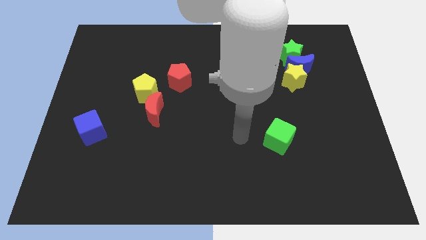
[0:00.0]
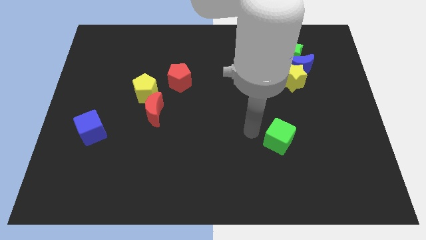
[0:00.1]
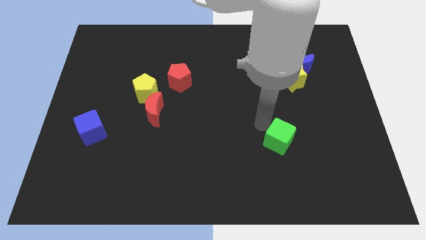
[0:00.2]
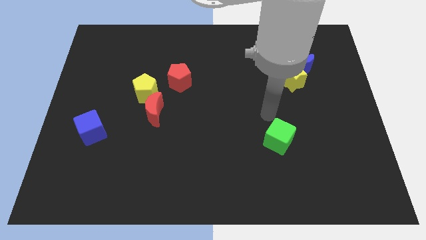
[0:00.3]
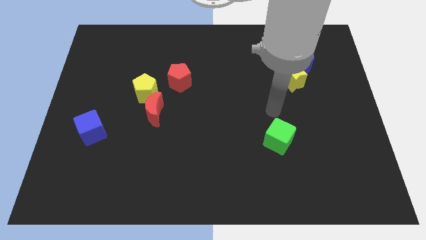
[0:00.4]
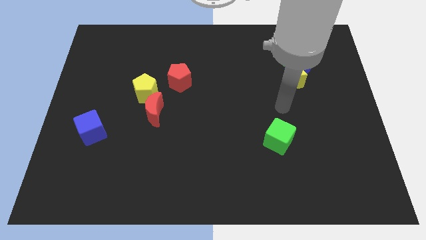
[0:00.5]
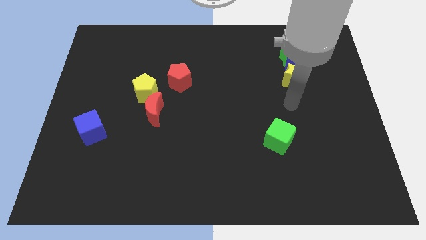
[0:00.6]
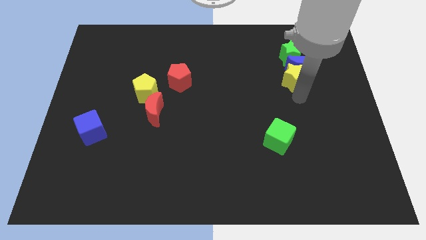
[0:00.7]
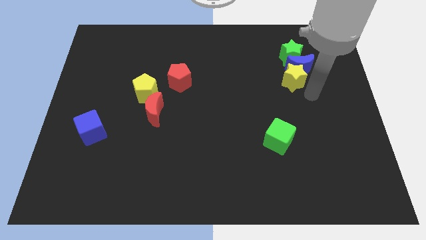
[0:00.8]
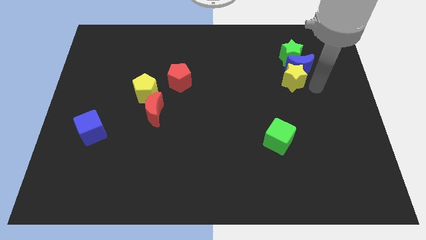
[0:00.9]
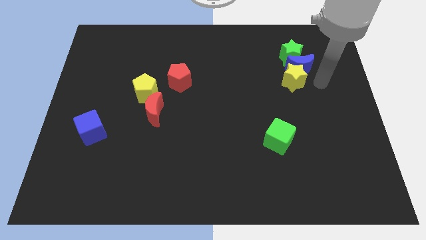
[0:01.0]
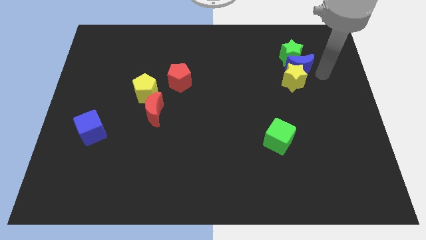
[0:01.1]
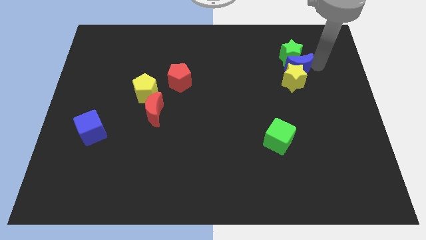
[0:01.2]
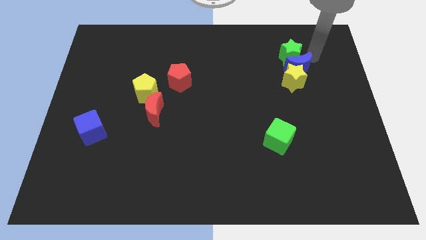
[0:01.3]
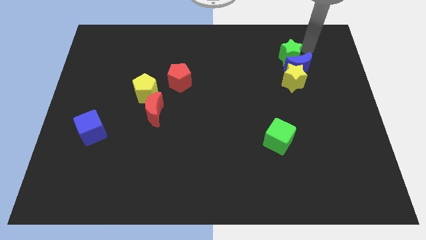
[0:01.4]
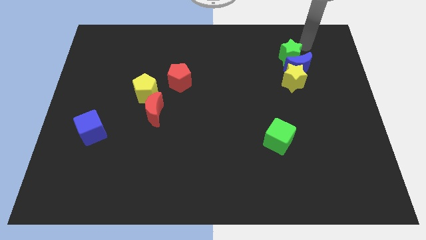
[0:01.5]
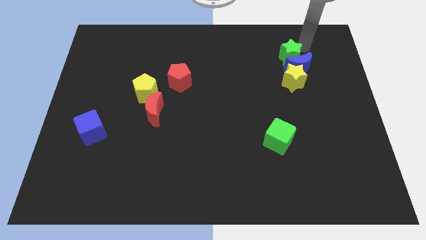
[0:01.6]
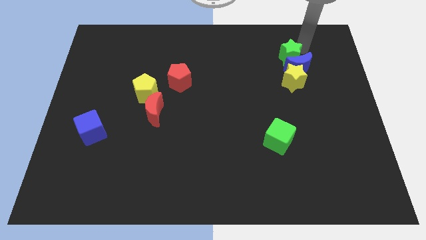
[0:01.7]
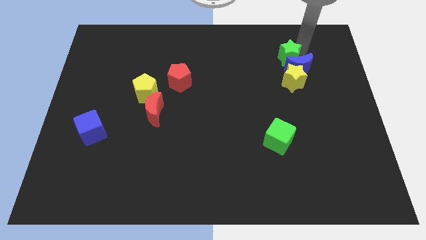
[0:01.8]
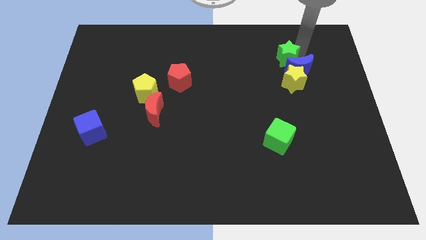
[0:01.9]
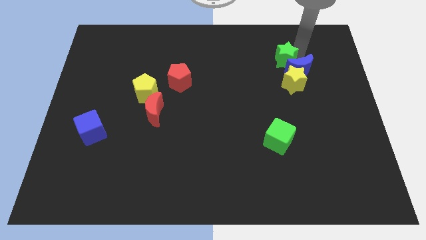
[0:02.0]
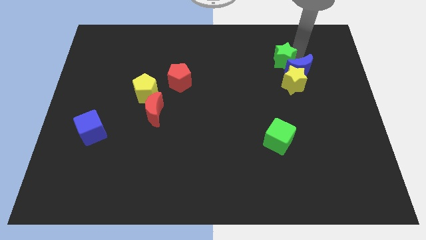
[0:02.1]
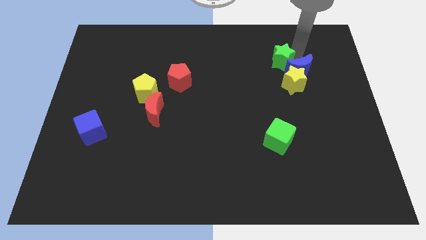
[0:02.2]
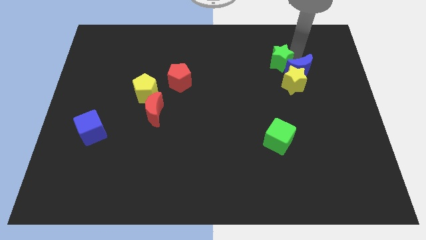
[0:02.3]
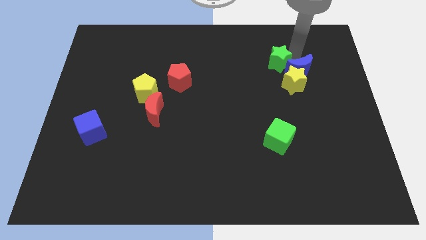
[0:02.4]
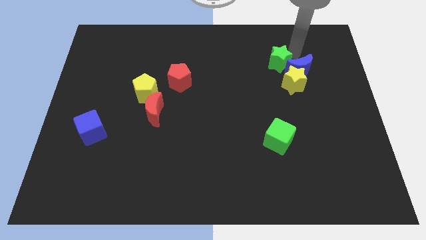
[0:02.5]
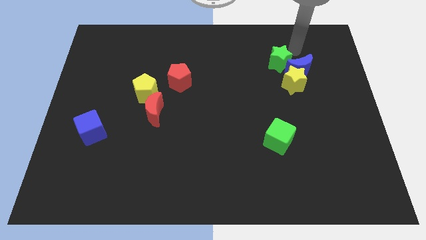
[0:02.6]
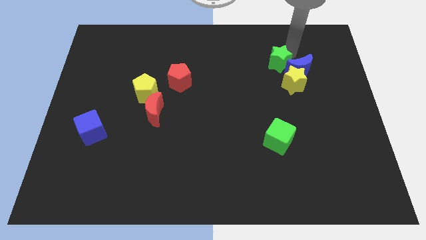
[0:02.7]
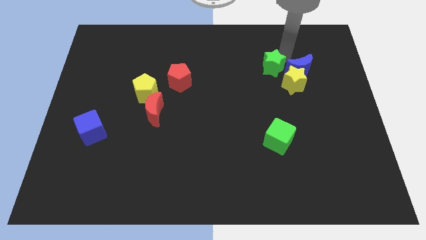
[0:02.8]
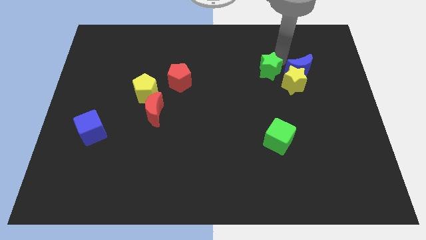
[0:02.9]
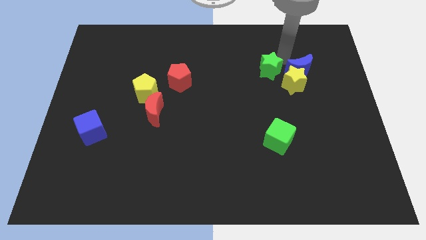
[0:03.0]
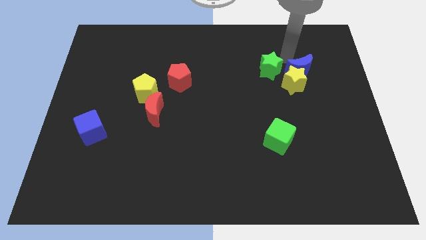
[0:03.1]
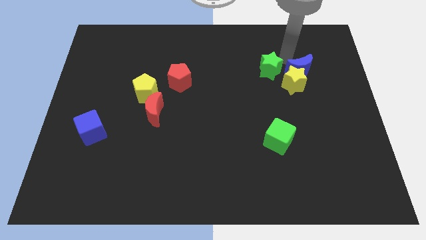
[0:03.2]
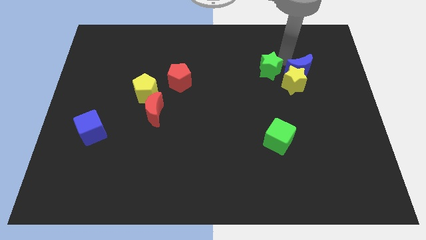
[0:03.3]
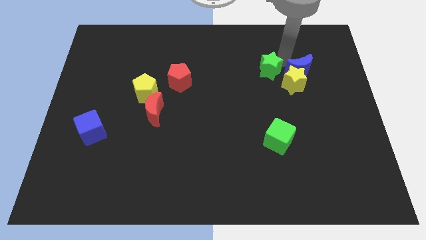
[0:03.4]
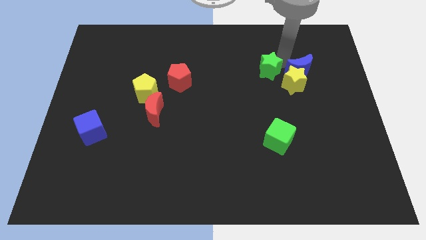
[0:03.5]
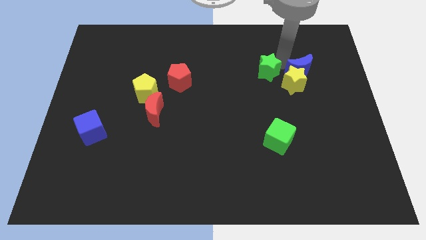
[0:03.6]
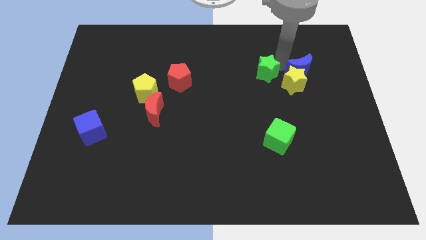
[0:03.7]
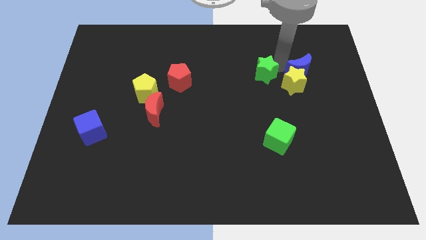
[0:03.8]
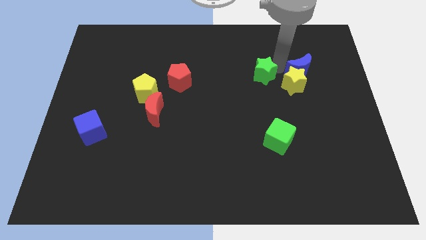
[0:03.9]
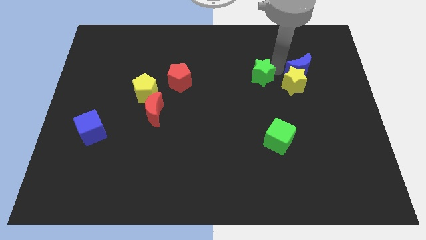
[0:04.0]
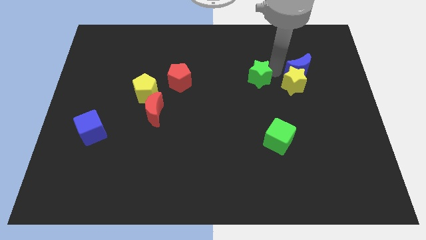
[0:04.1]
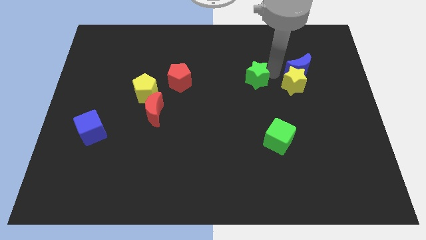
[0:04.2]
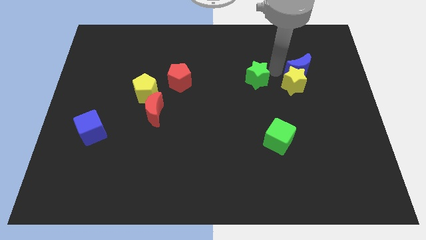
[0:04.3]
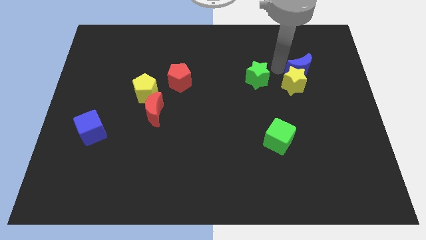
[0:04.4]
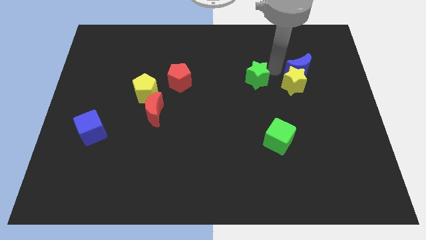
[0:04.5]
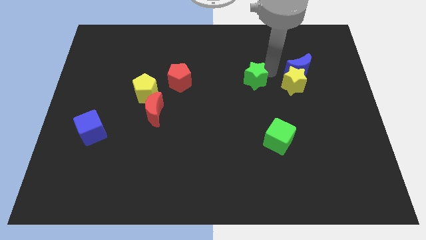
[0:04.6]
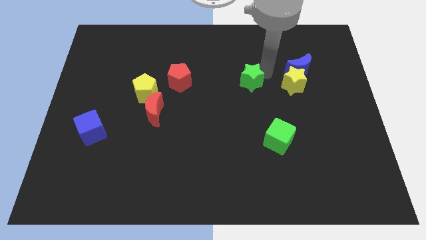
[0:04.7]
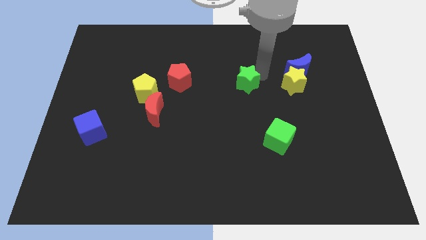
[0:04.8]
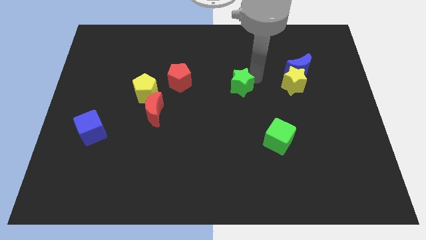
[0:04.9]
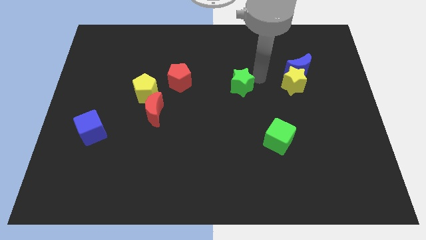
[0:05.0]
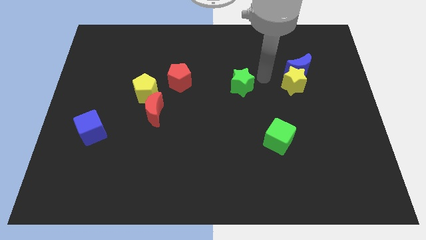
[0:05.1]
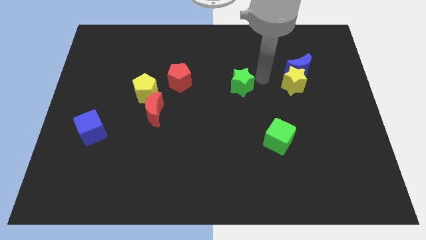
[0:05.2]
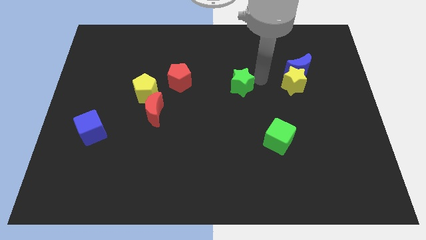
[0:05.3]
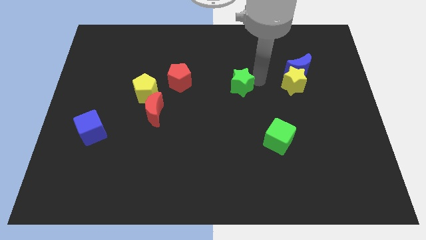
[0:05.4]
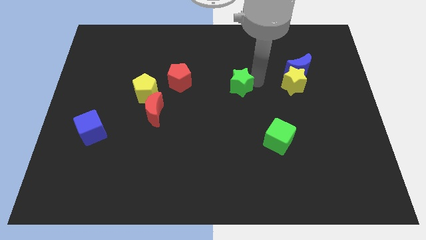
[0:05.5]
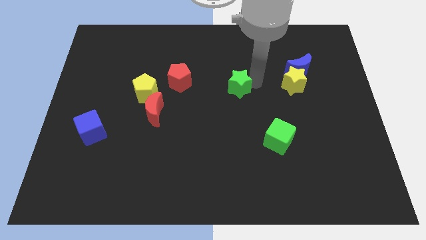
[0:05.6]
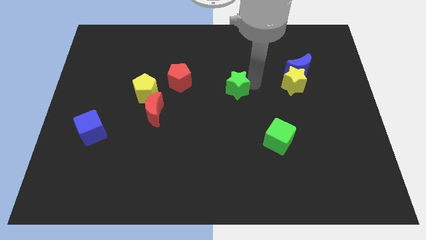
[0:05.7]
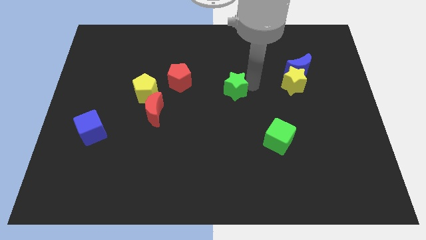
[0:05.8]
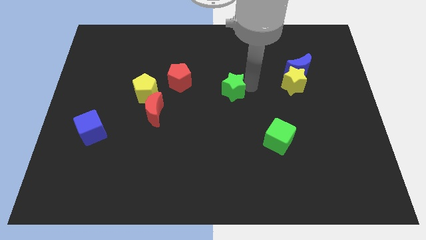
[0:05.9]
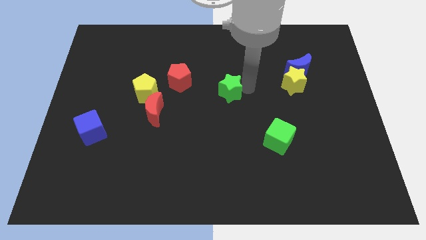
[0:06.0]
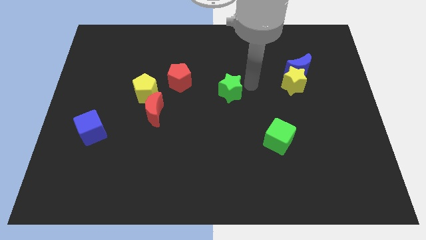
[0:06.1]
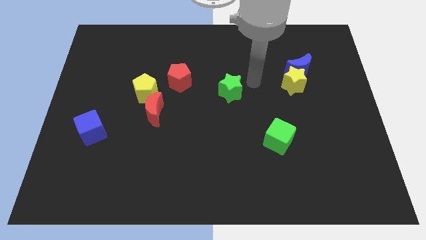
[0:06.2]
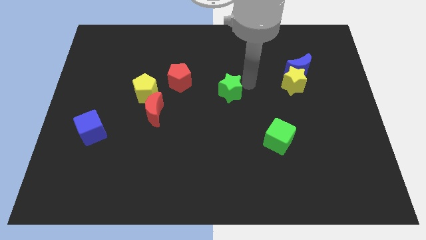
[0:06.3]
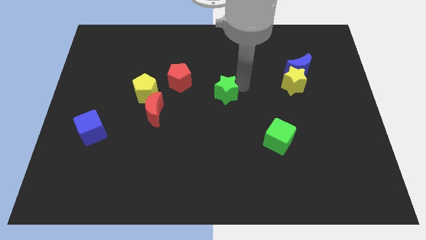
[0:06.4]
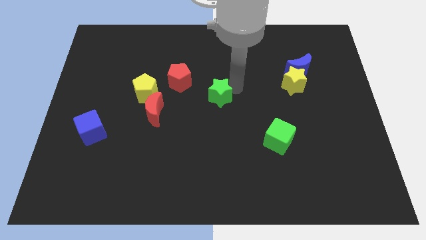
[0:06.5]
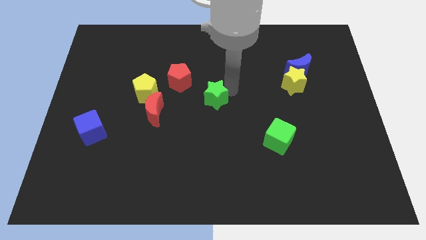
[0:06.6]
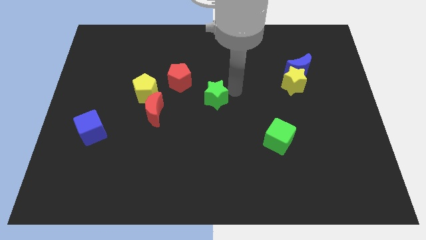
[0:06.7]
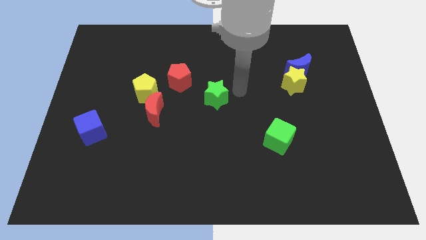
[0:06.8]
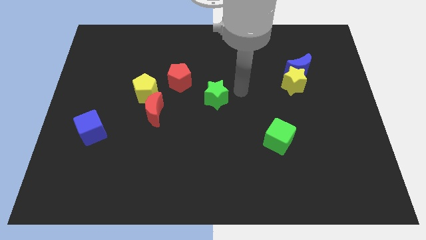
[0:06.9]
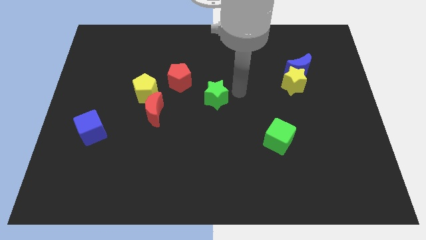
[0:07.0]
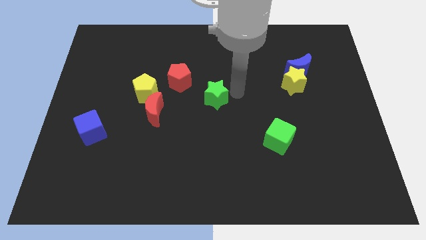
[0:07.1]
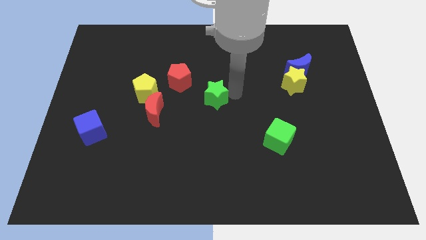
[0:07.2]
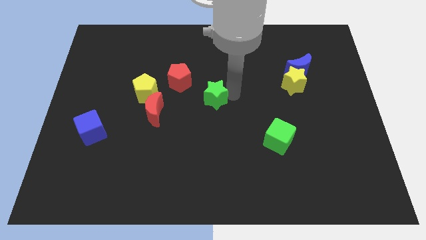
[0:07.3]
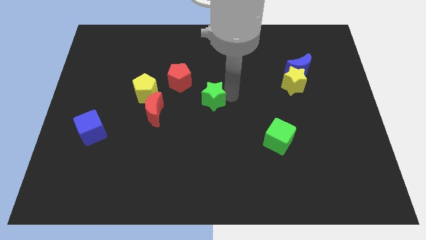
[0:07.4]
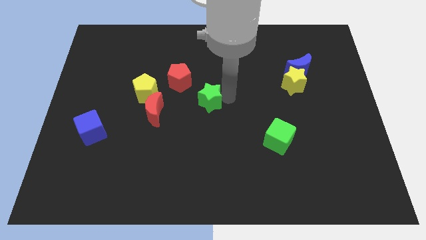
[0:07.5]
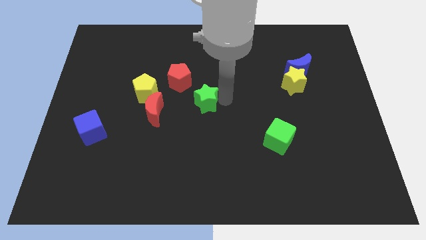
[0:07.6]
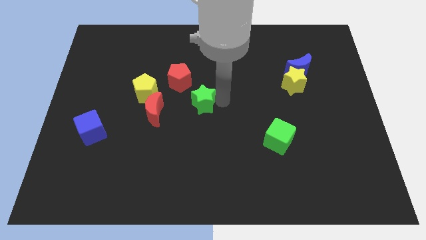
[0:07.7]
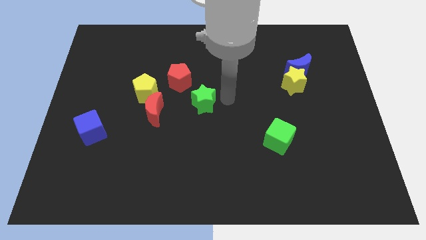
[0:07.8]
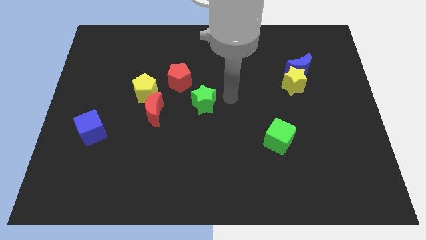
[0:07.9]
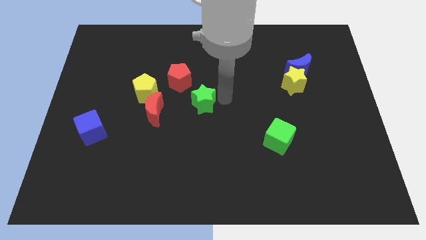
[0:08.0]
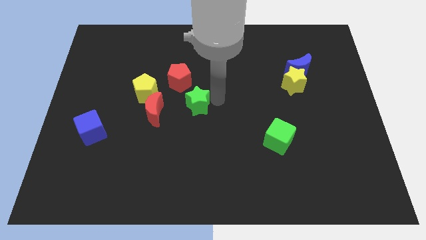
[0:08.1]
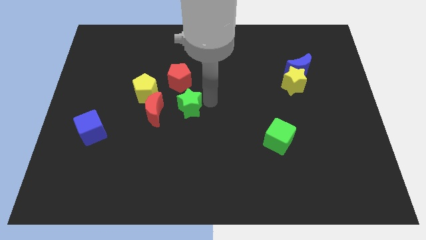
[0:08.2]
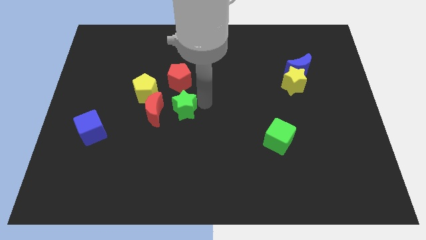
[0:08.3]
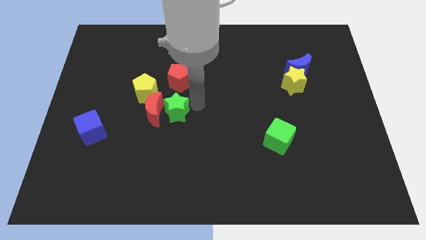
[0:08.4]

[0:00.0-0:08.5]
slide the green star towards the red moon
